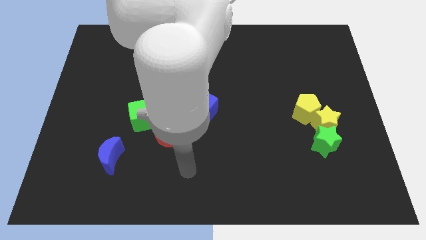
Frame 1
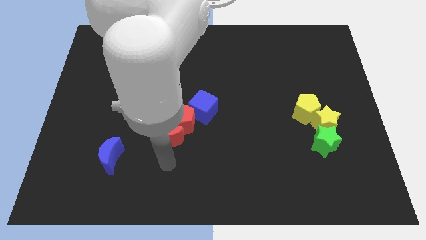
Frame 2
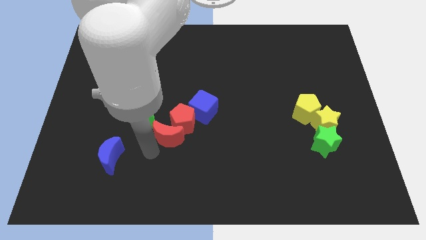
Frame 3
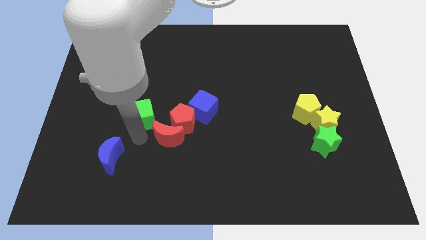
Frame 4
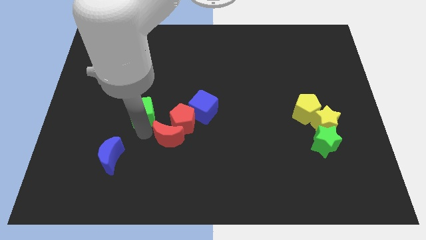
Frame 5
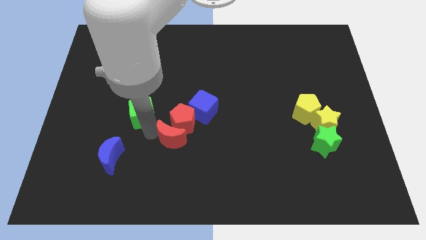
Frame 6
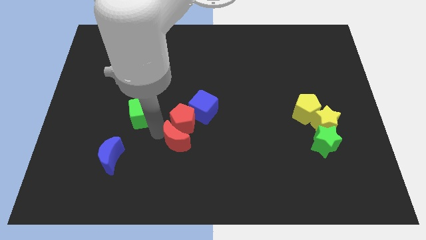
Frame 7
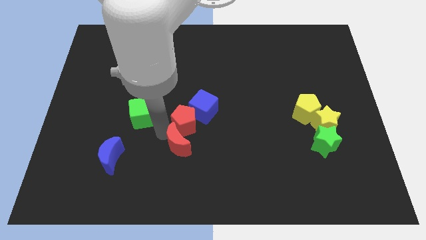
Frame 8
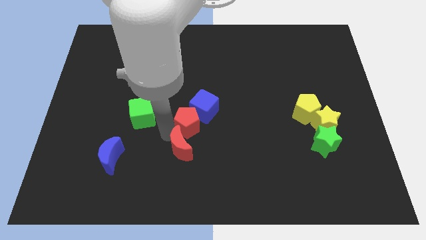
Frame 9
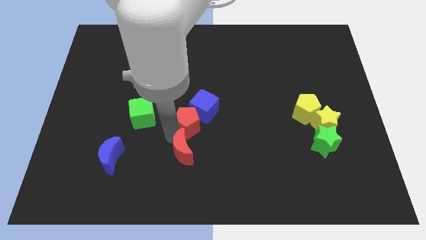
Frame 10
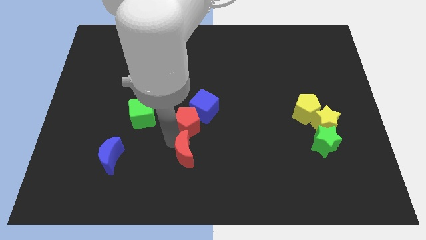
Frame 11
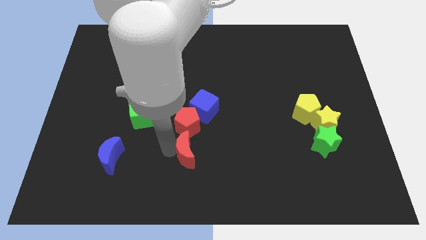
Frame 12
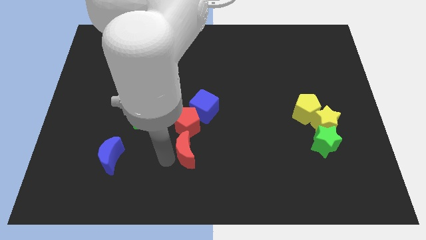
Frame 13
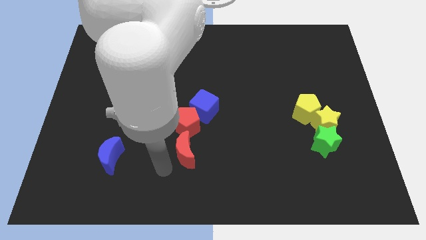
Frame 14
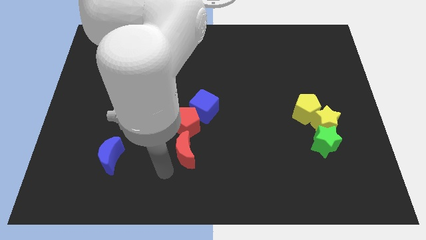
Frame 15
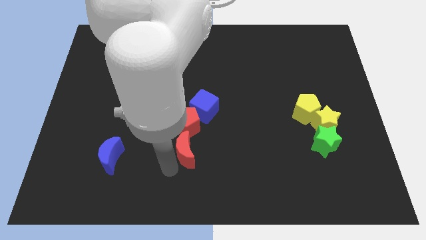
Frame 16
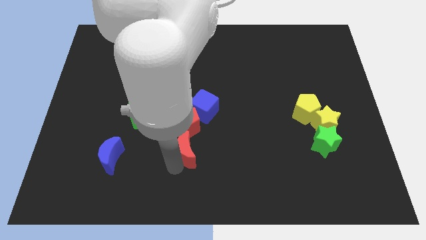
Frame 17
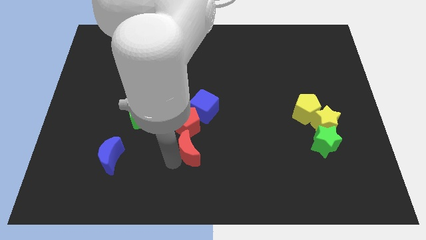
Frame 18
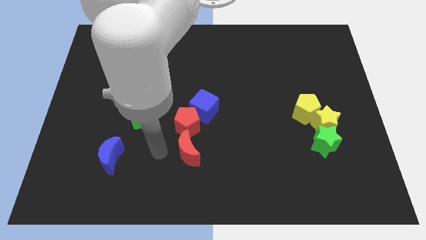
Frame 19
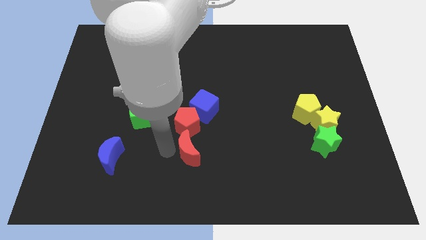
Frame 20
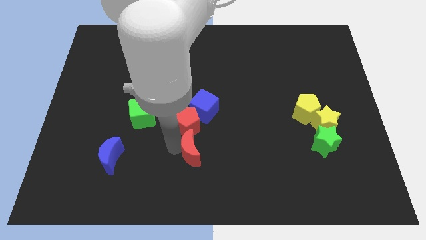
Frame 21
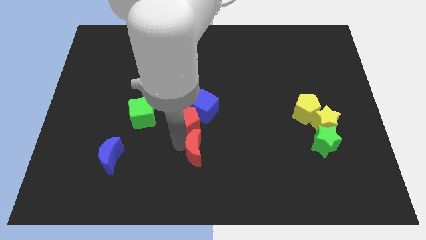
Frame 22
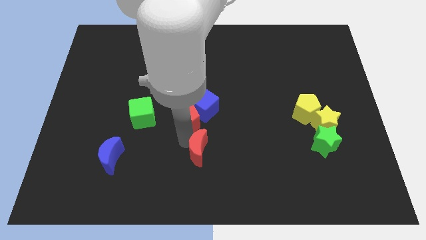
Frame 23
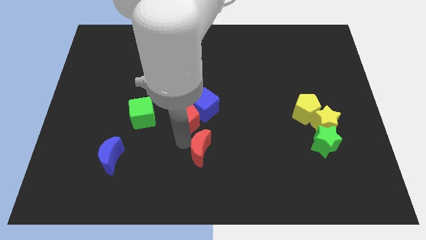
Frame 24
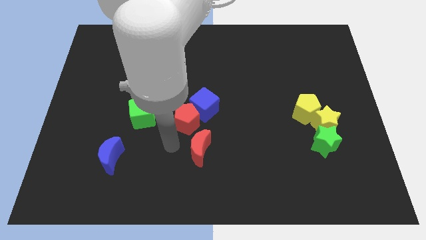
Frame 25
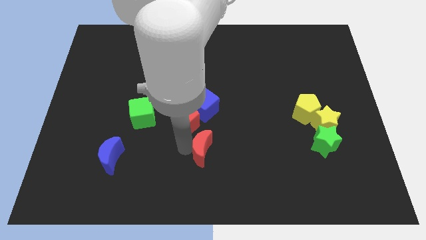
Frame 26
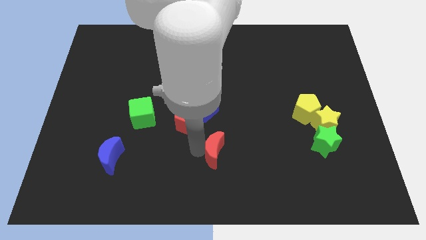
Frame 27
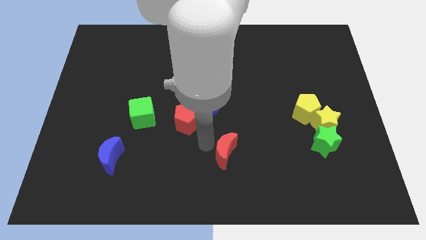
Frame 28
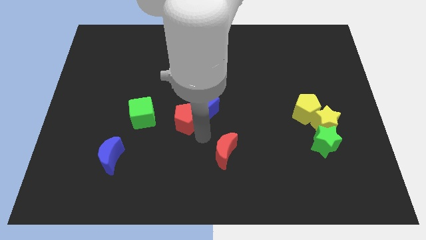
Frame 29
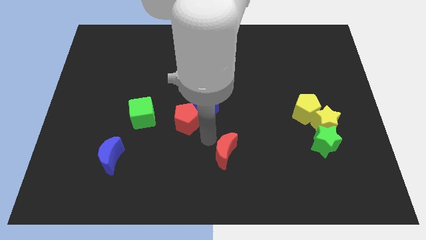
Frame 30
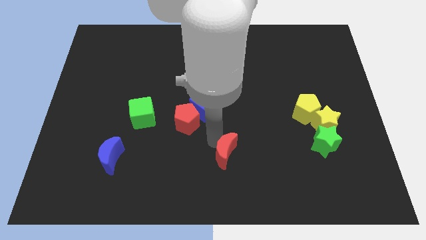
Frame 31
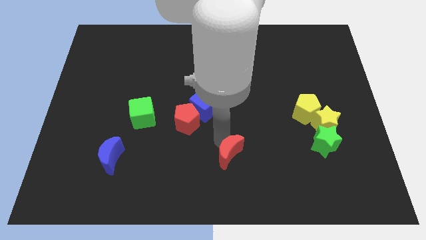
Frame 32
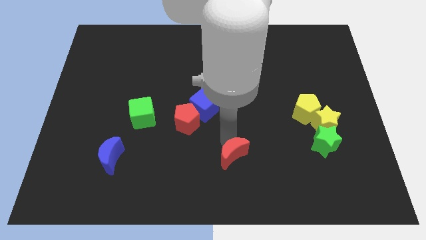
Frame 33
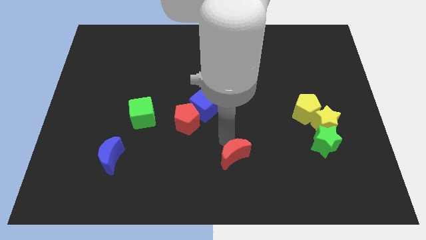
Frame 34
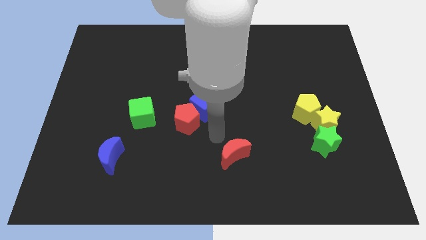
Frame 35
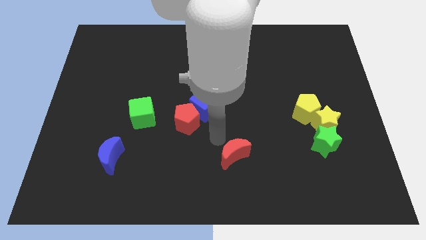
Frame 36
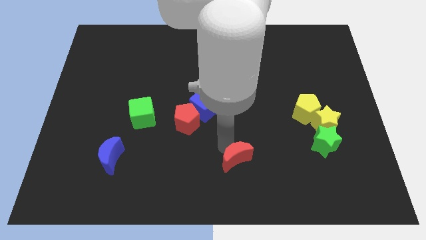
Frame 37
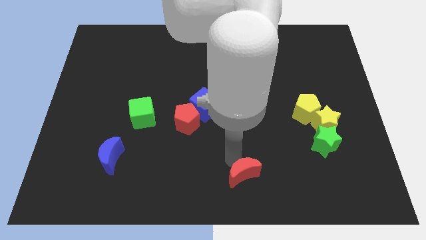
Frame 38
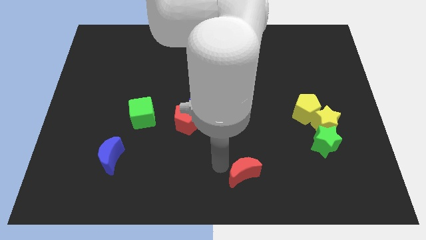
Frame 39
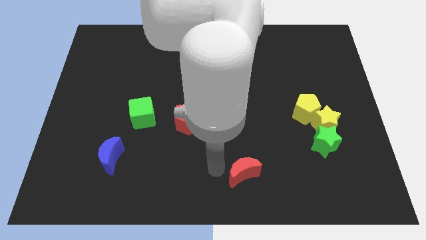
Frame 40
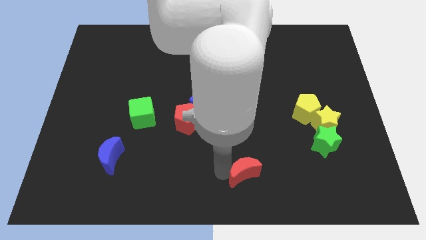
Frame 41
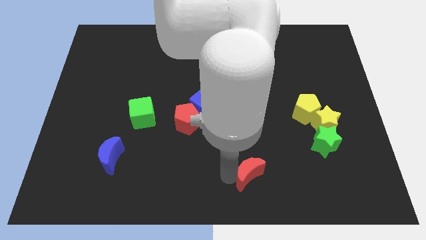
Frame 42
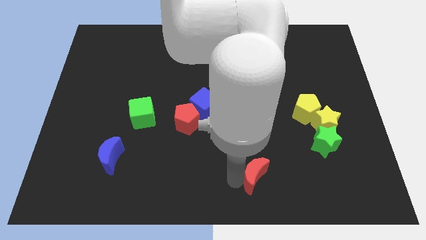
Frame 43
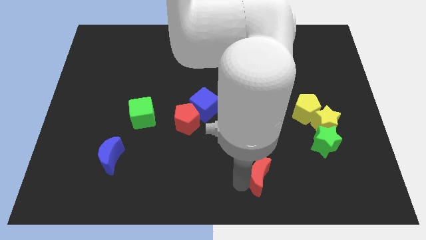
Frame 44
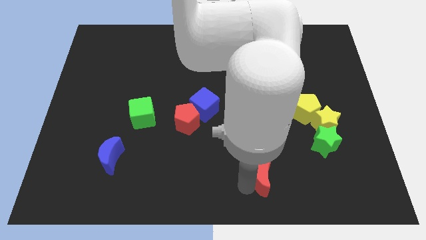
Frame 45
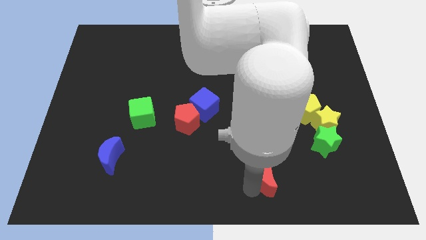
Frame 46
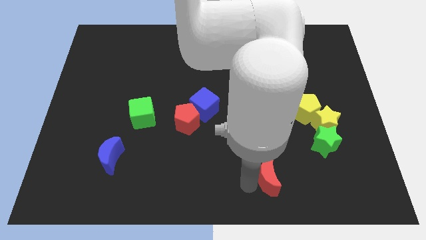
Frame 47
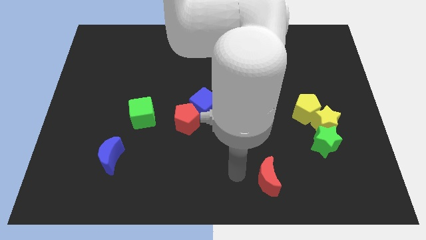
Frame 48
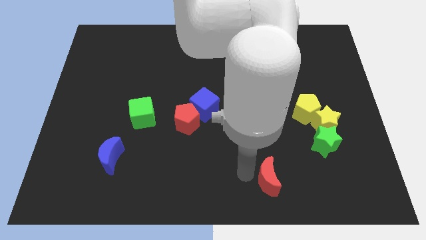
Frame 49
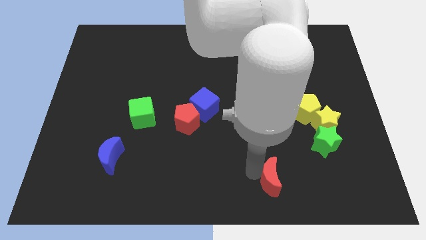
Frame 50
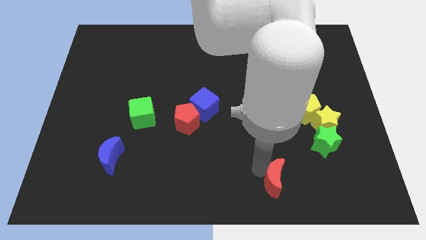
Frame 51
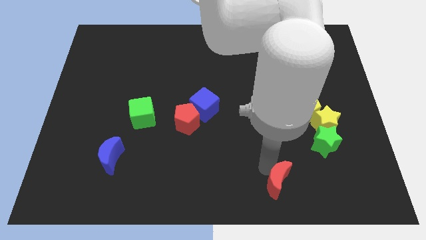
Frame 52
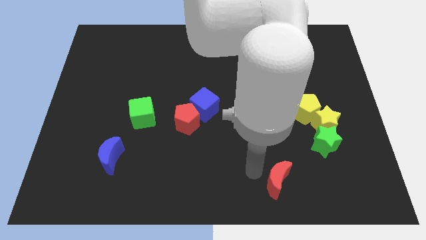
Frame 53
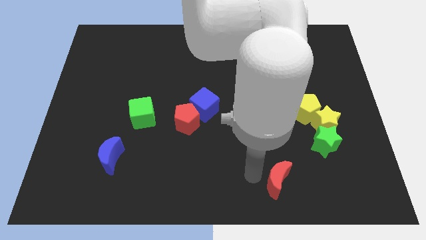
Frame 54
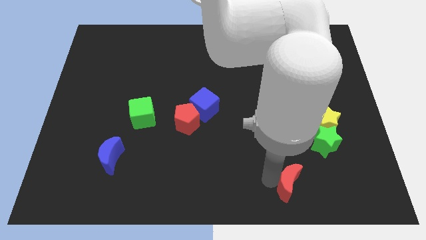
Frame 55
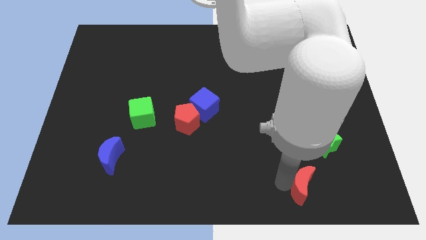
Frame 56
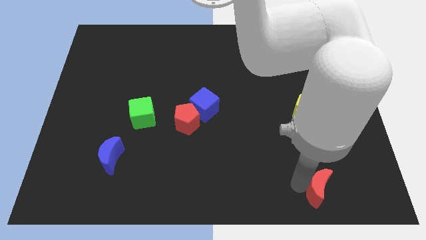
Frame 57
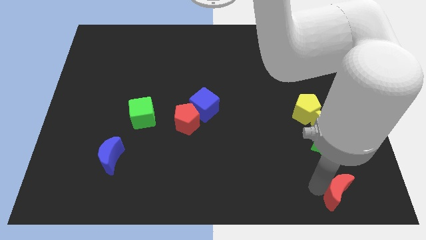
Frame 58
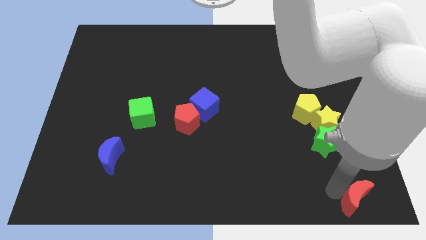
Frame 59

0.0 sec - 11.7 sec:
put the red moon to the lower right corner
